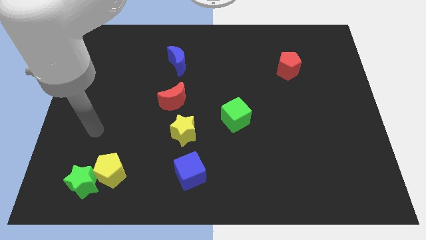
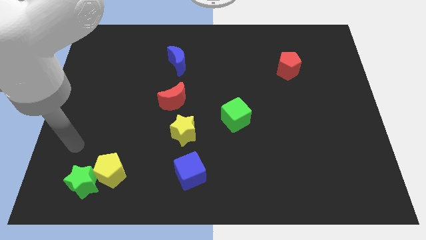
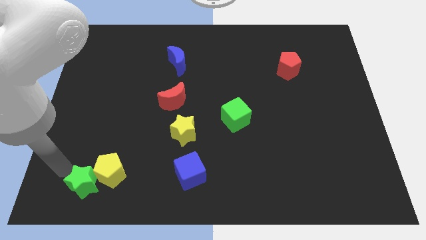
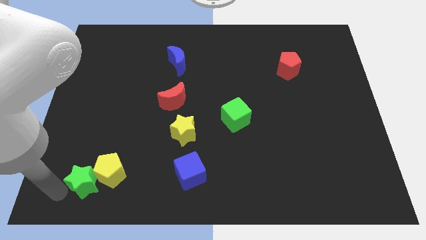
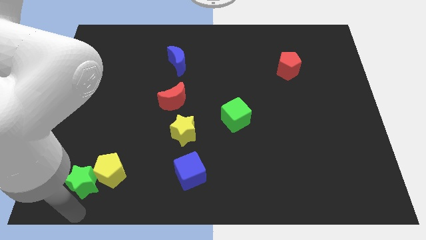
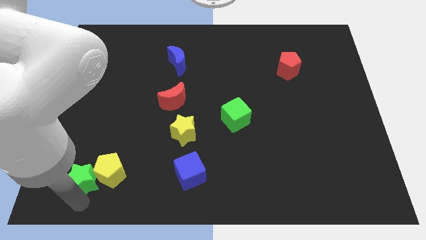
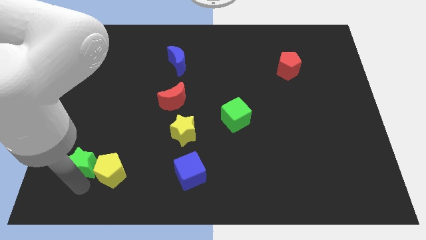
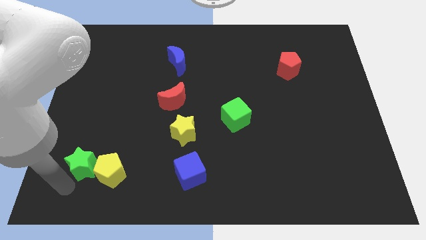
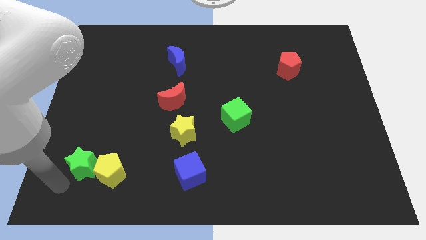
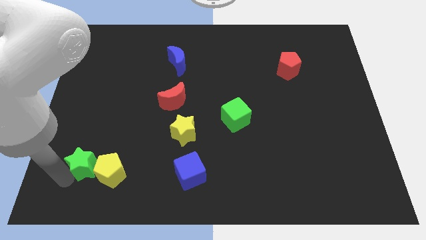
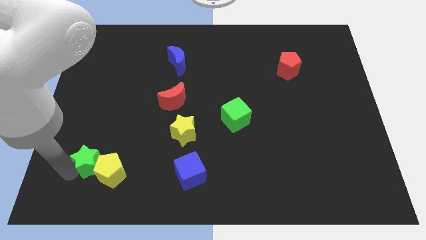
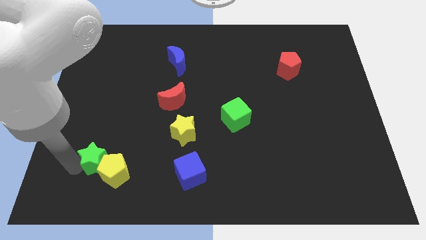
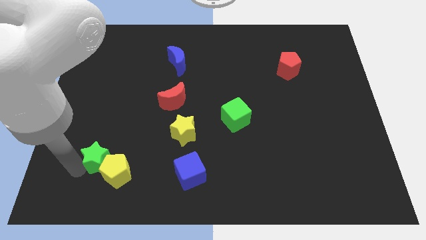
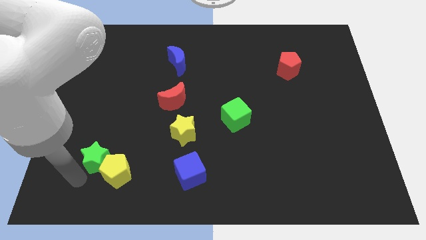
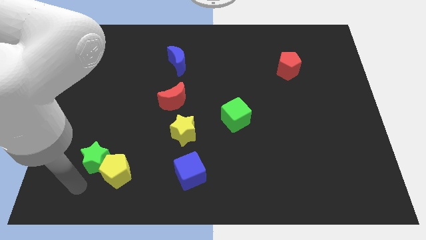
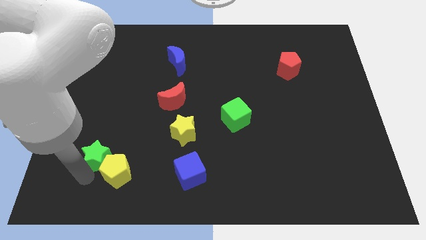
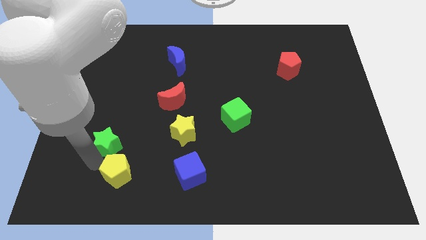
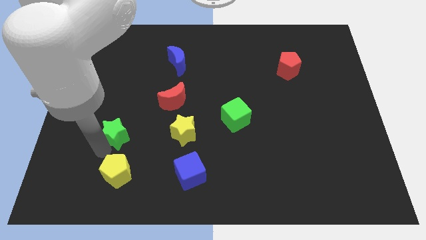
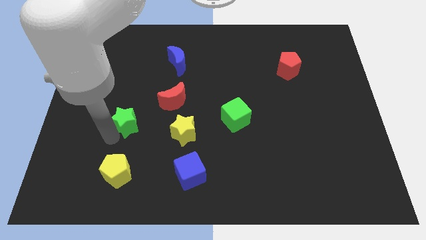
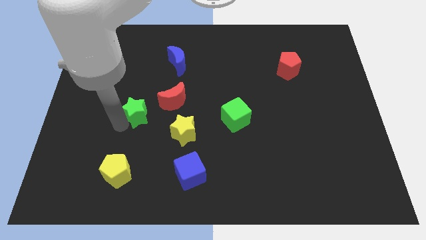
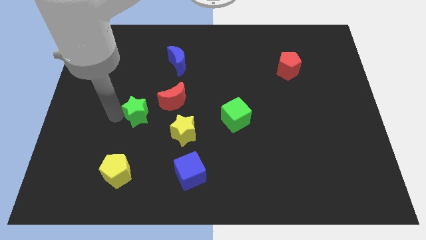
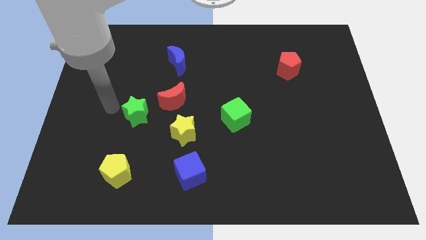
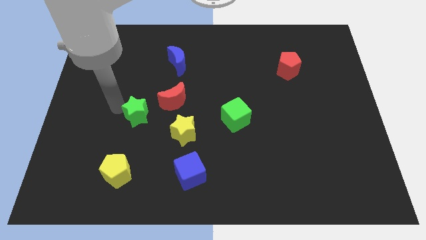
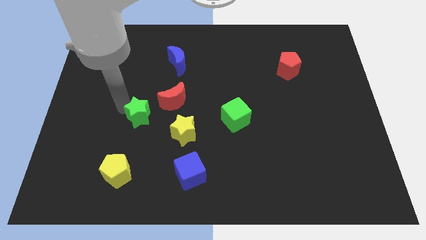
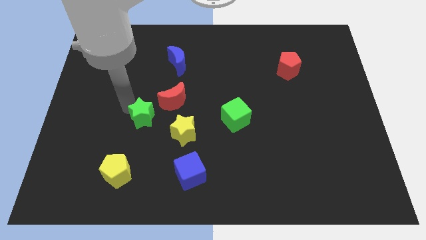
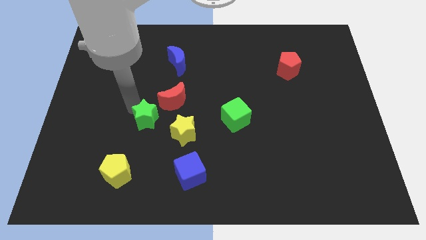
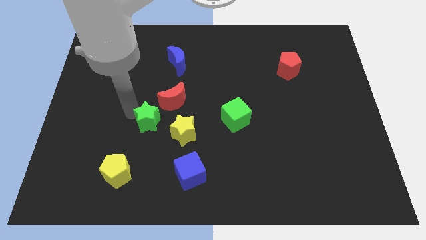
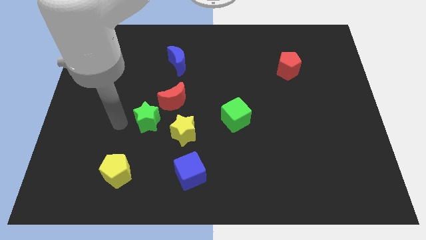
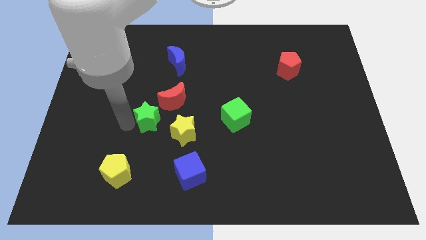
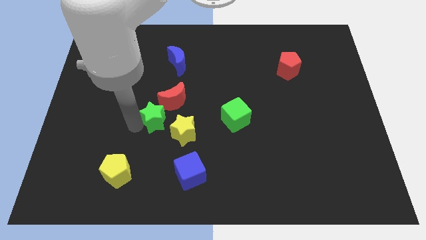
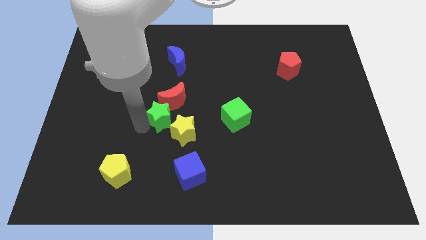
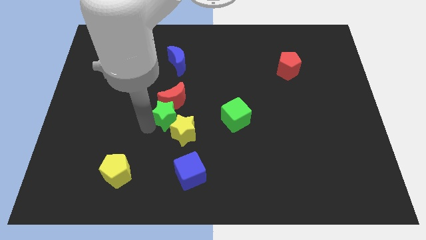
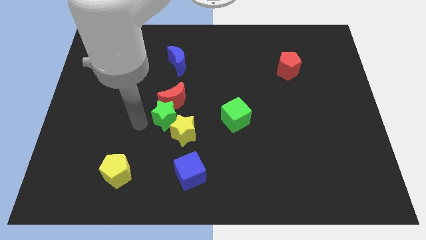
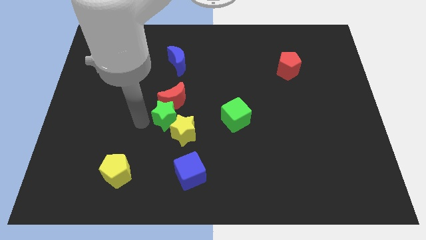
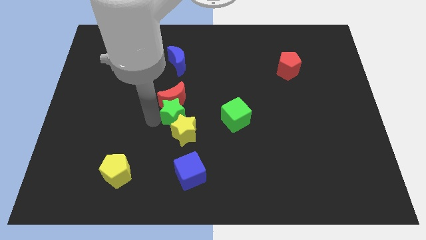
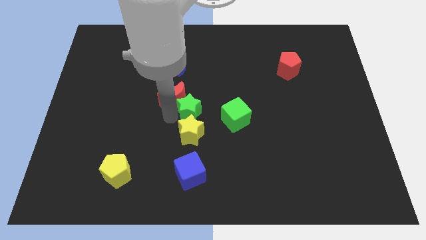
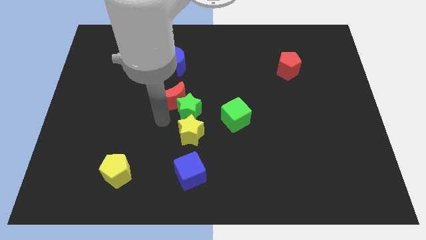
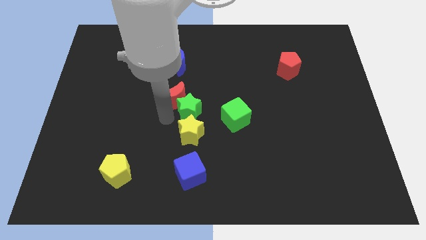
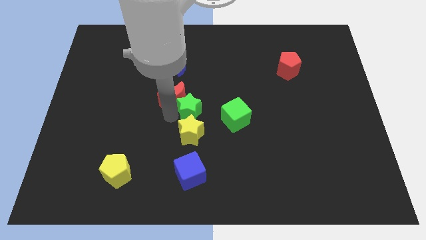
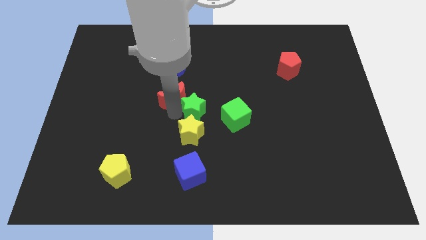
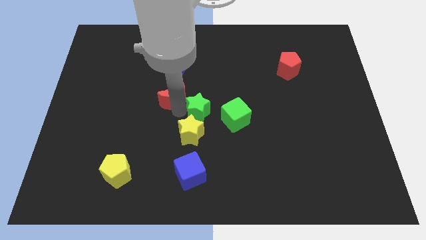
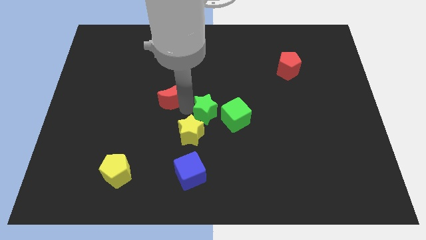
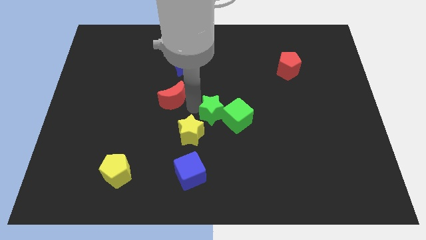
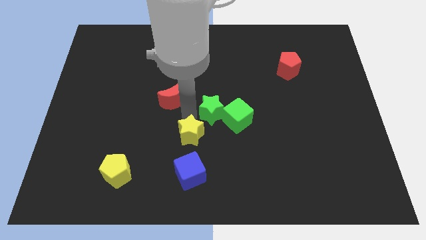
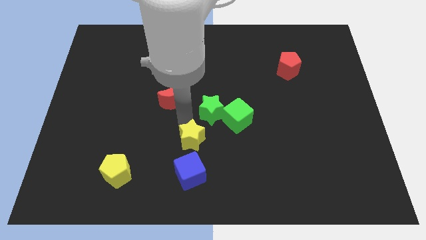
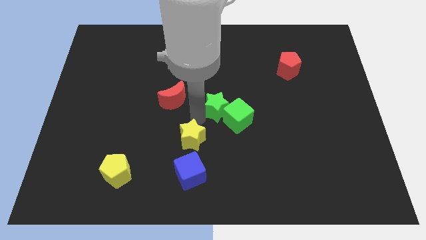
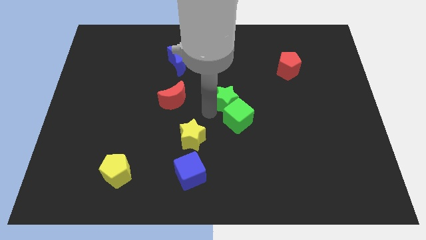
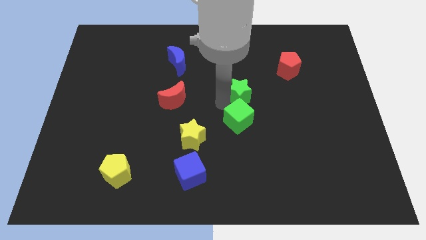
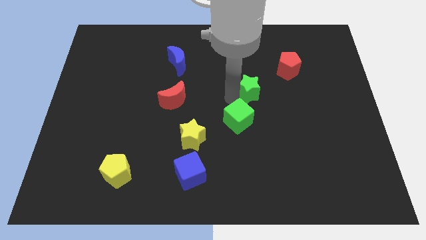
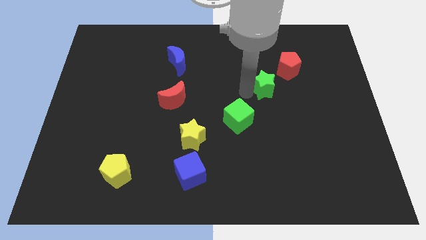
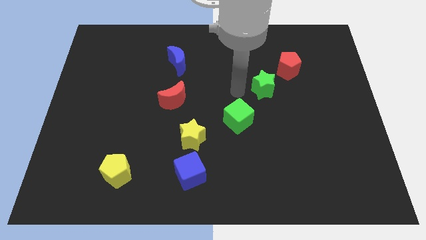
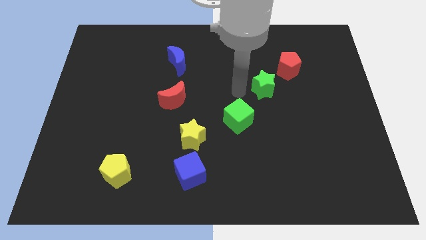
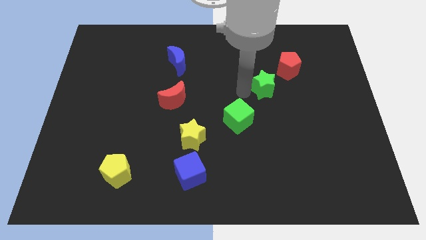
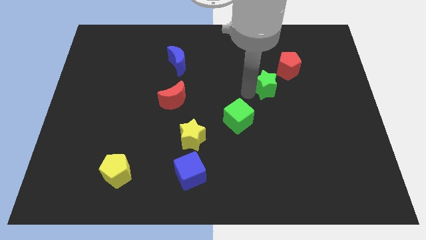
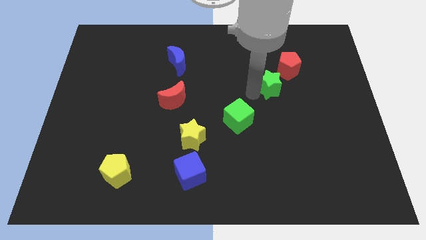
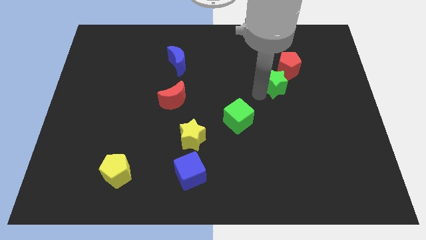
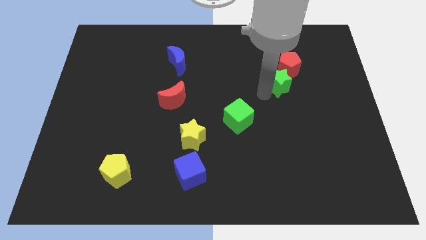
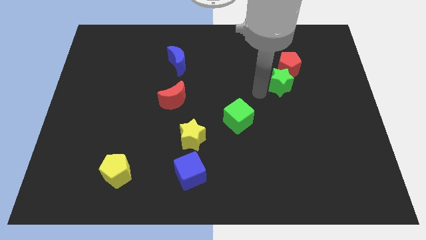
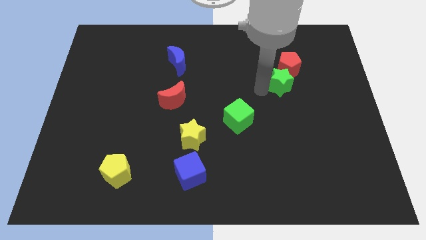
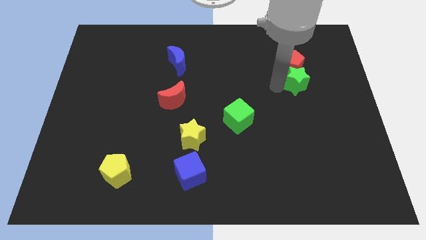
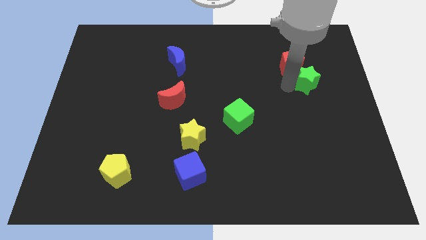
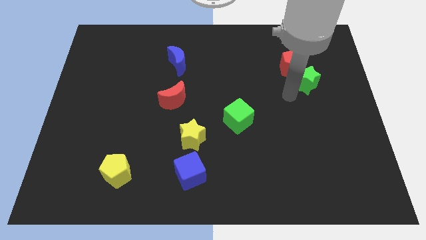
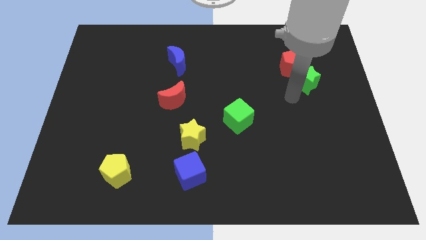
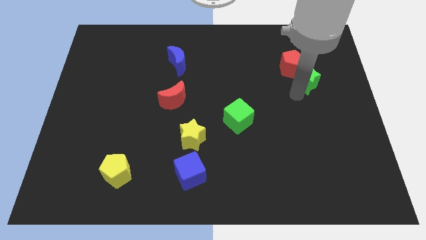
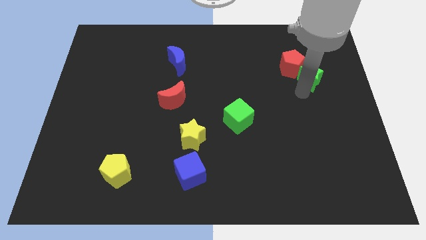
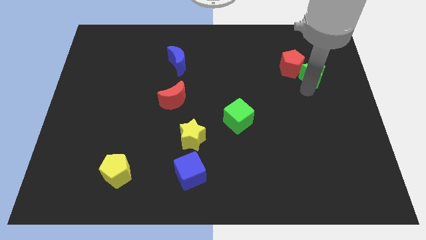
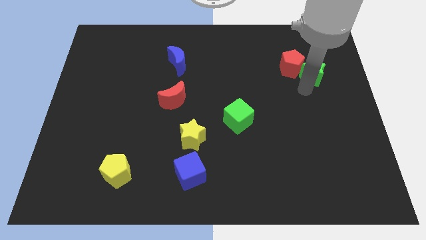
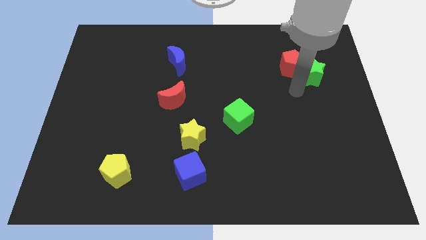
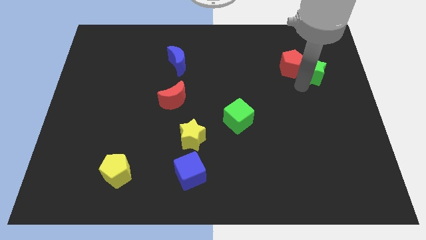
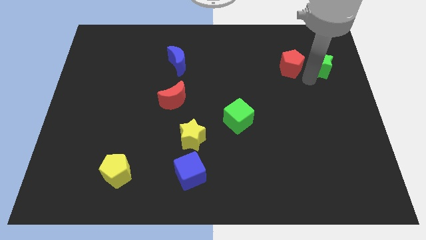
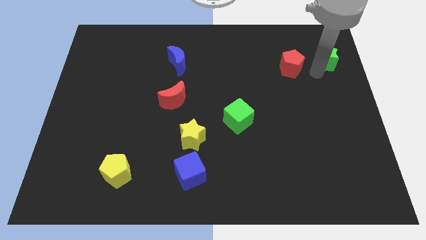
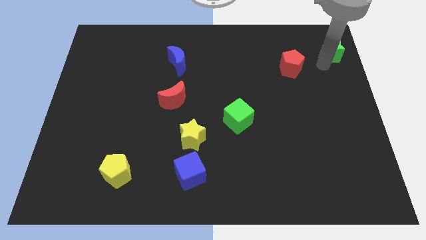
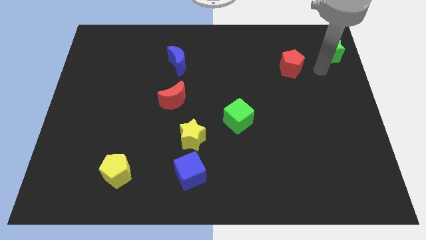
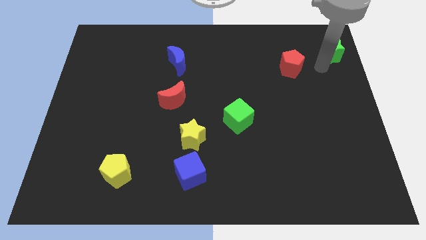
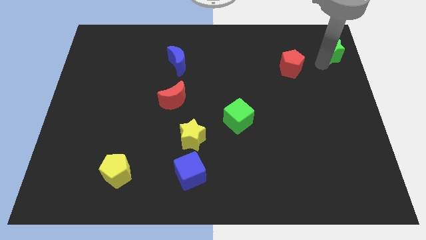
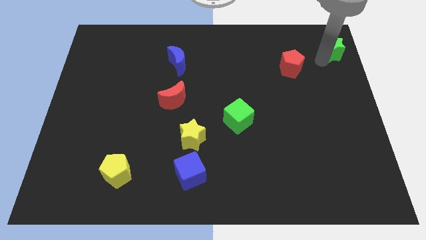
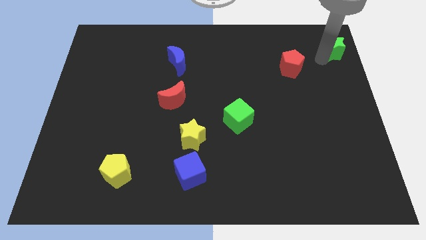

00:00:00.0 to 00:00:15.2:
put the green star to the top right

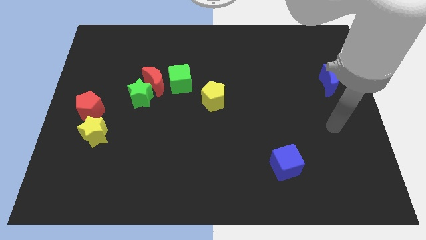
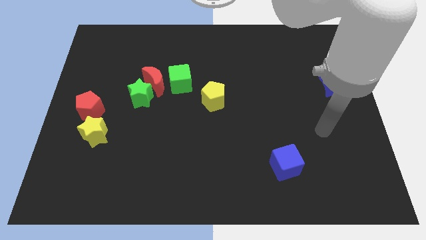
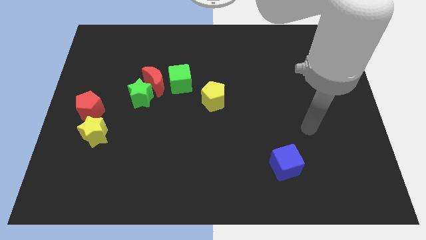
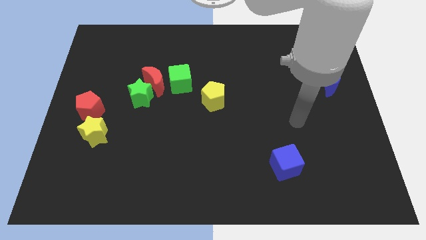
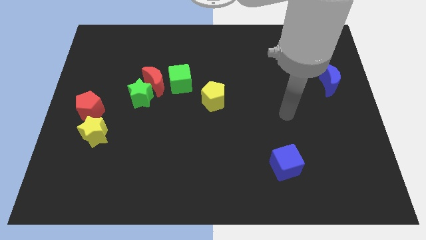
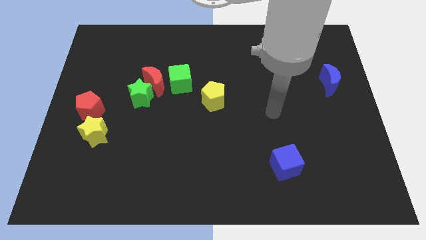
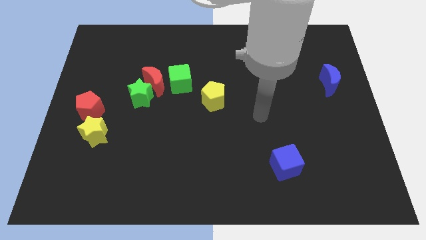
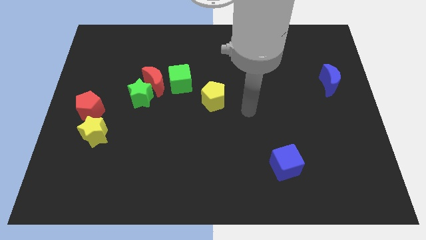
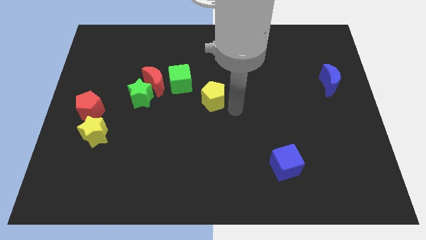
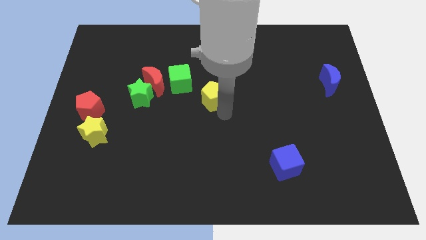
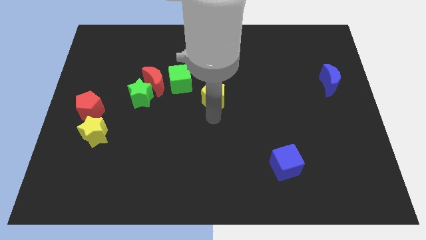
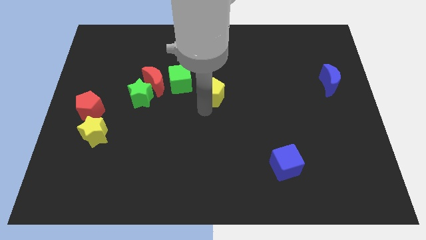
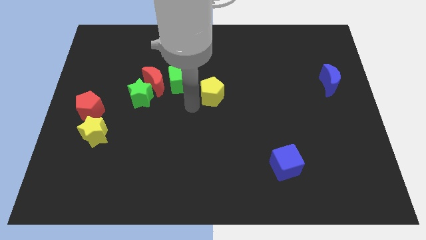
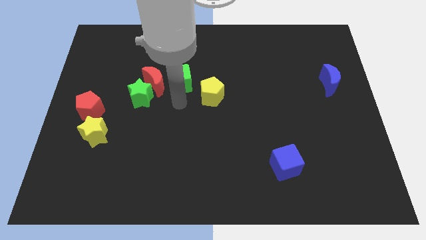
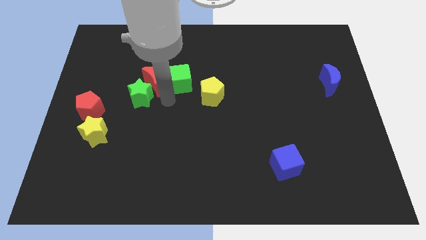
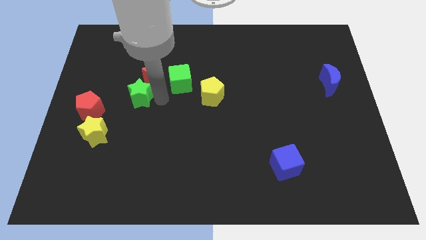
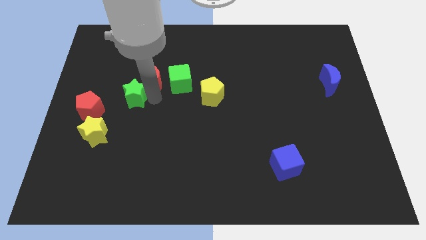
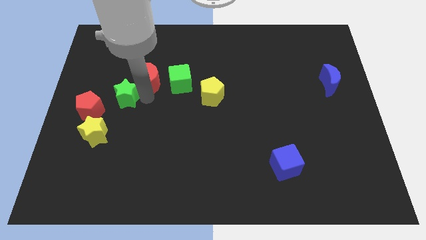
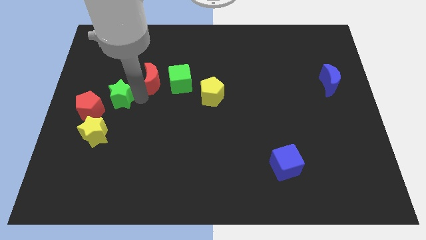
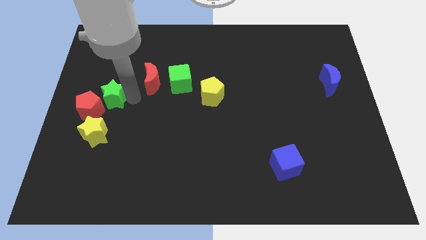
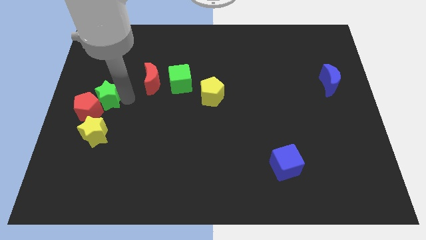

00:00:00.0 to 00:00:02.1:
push the green star to the left side of the board
